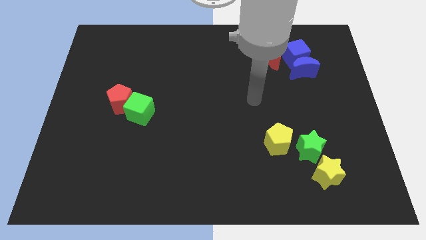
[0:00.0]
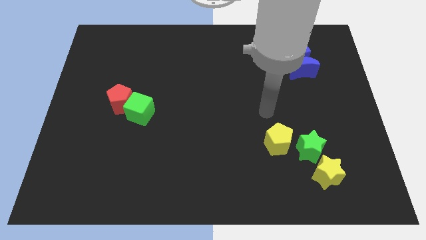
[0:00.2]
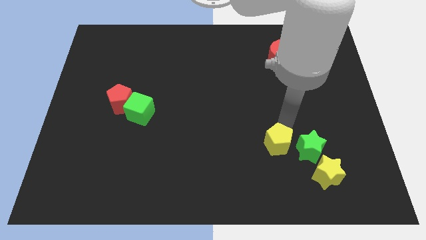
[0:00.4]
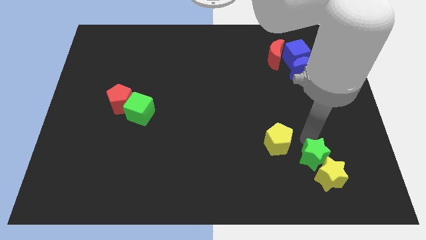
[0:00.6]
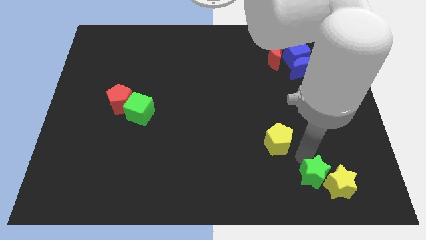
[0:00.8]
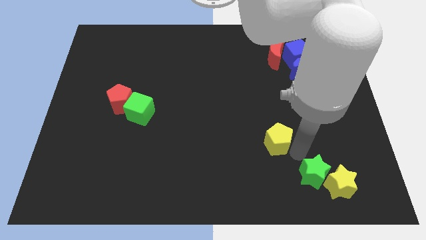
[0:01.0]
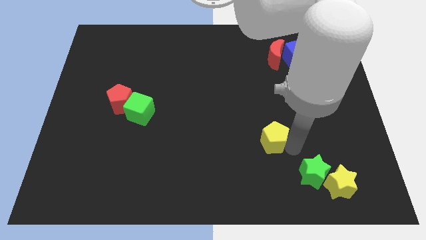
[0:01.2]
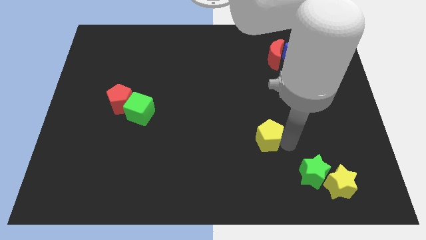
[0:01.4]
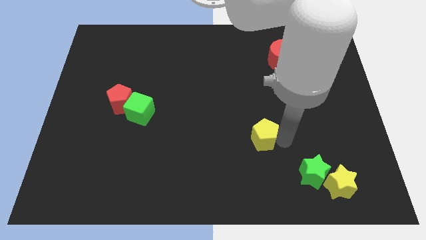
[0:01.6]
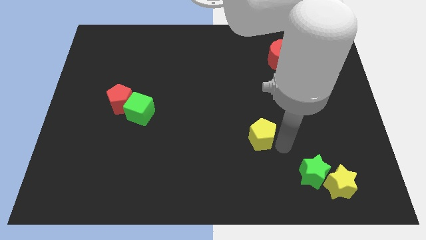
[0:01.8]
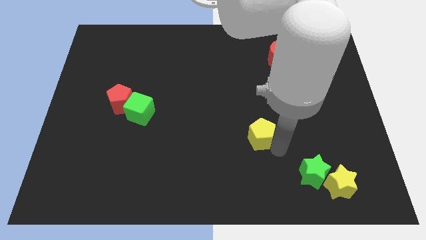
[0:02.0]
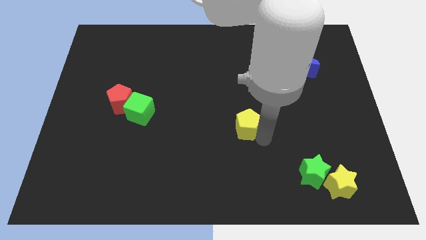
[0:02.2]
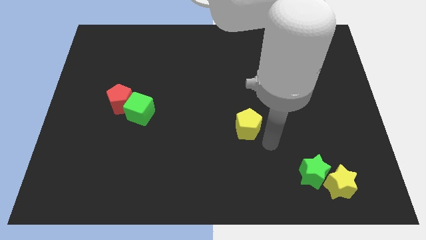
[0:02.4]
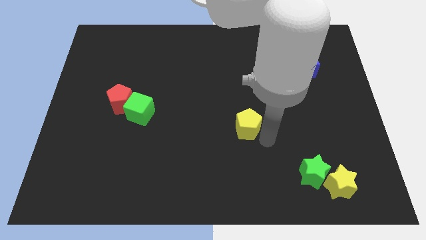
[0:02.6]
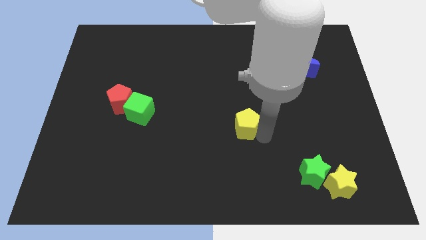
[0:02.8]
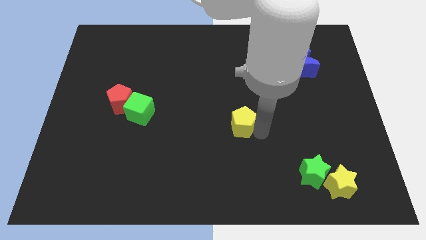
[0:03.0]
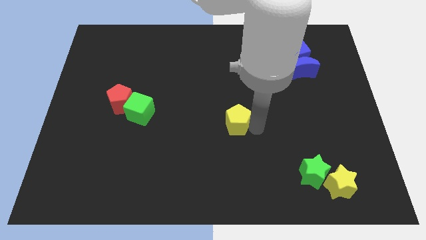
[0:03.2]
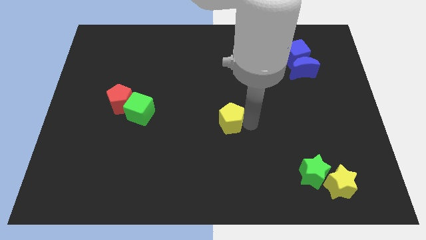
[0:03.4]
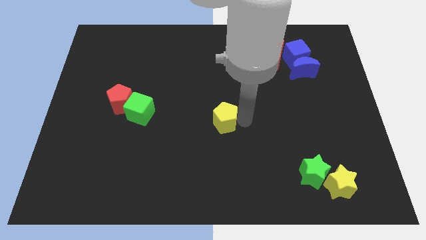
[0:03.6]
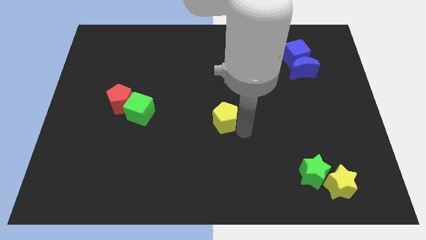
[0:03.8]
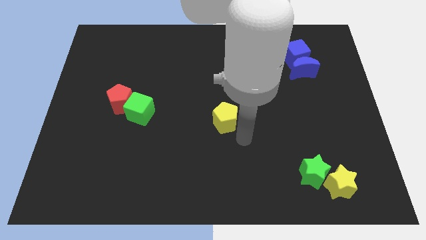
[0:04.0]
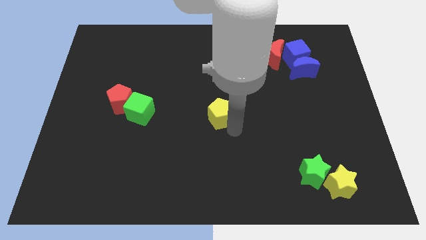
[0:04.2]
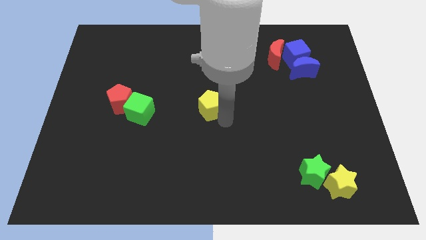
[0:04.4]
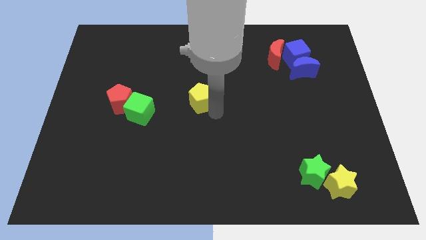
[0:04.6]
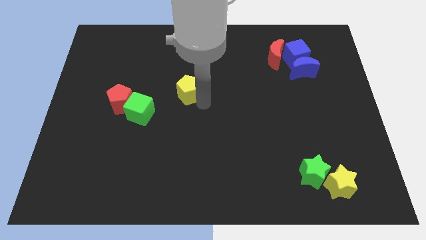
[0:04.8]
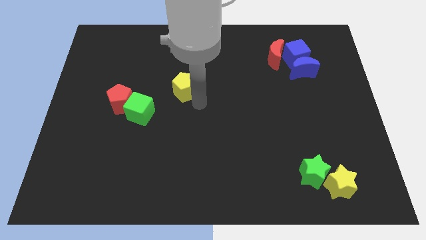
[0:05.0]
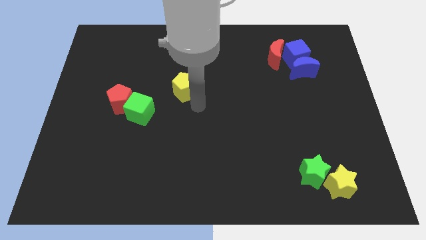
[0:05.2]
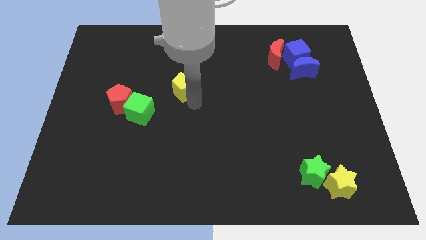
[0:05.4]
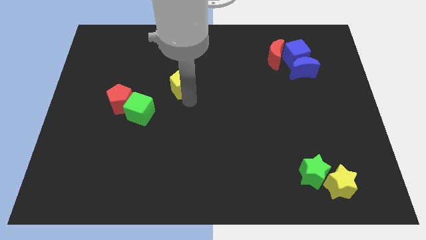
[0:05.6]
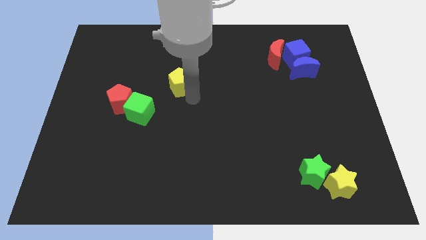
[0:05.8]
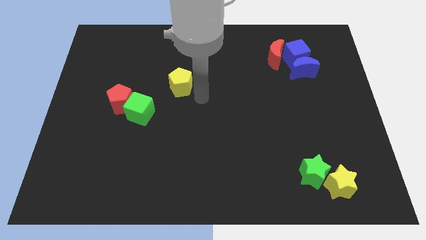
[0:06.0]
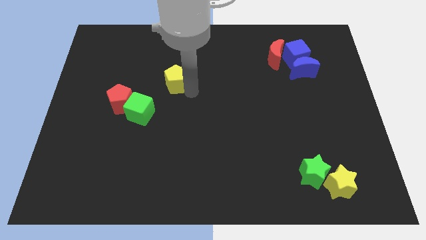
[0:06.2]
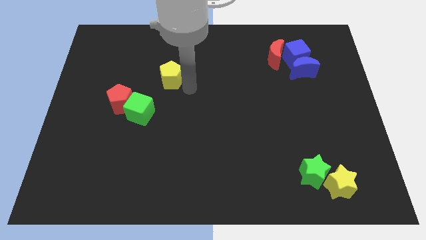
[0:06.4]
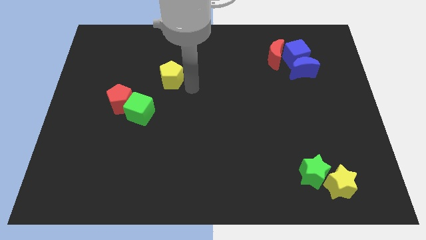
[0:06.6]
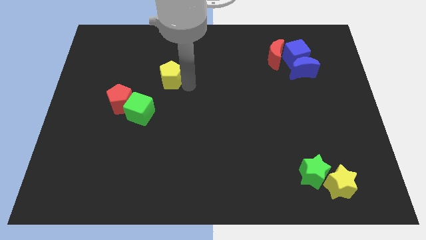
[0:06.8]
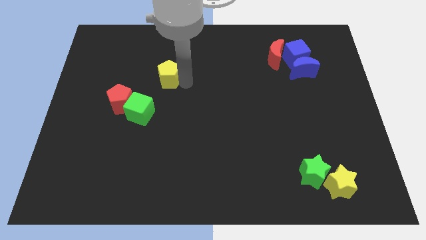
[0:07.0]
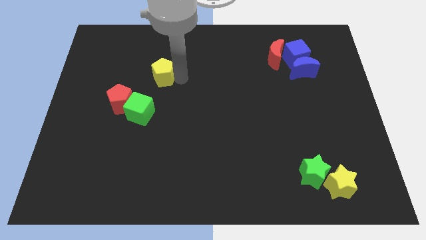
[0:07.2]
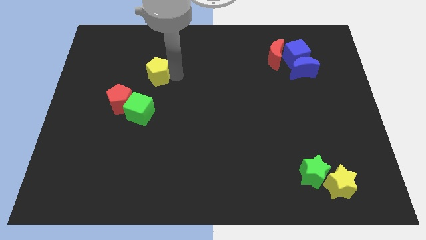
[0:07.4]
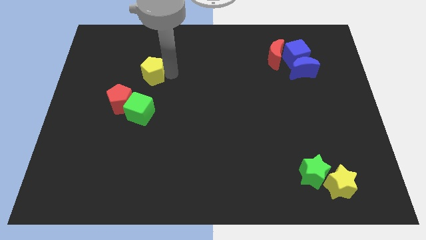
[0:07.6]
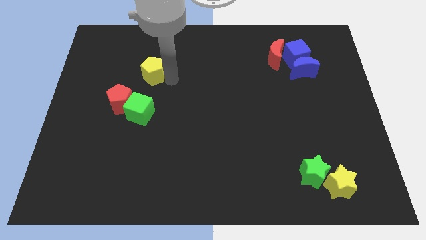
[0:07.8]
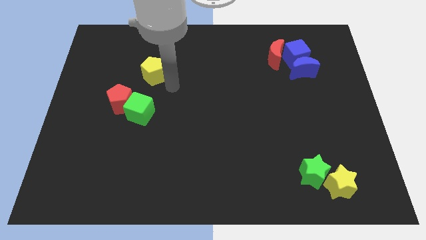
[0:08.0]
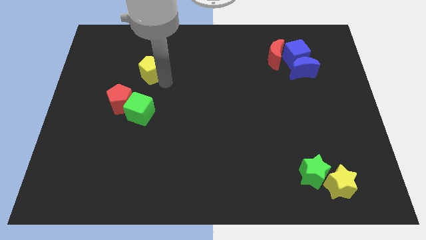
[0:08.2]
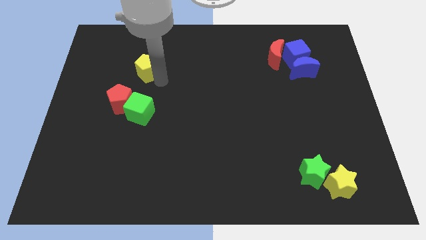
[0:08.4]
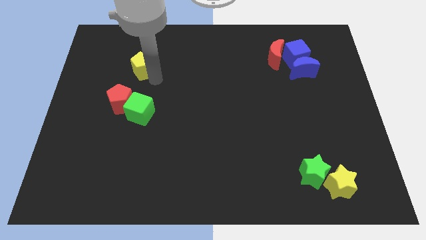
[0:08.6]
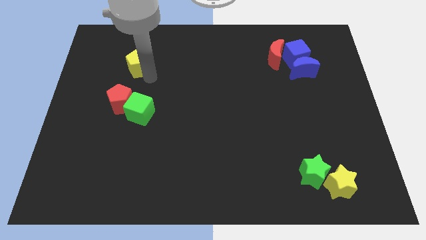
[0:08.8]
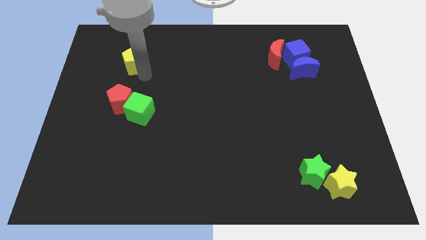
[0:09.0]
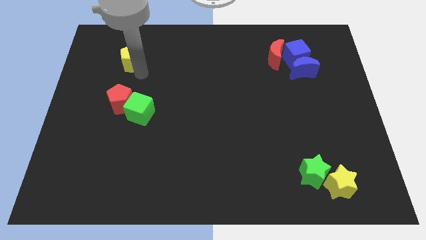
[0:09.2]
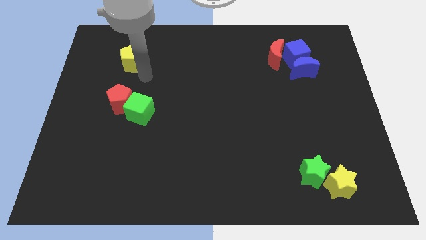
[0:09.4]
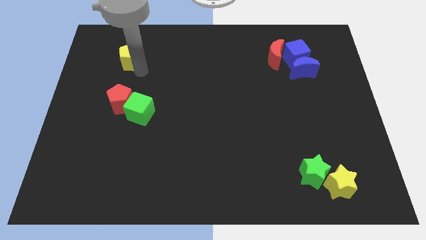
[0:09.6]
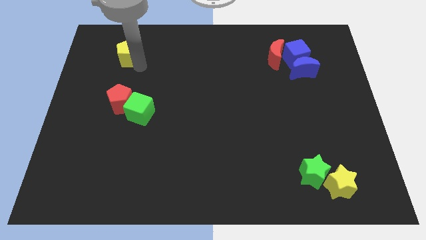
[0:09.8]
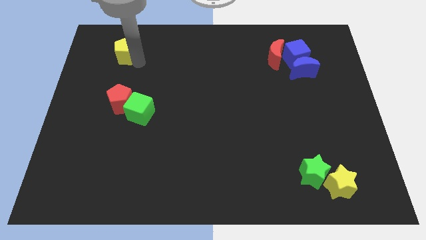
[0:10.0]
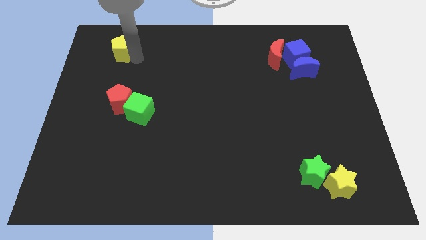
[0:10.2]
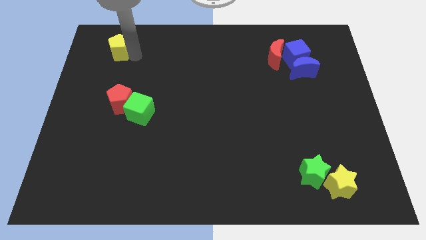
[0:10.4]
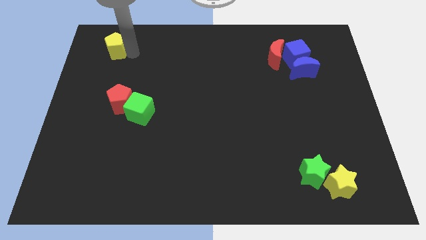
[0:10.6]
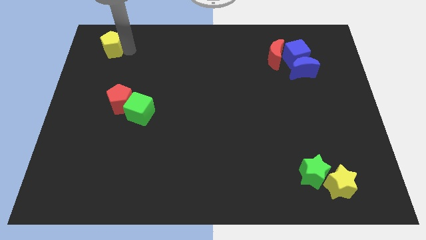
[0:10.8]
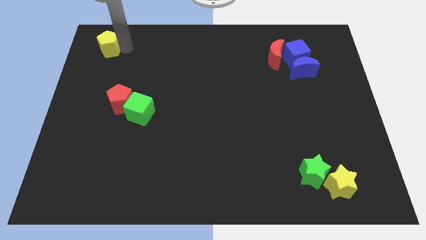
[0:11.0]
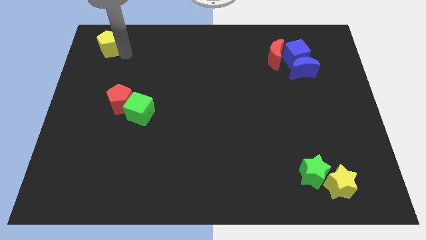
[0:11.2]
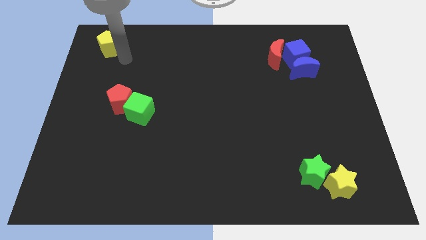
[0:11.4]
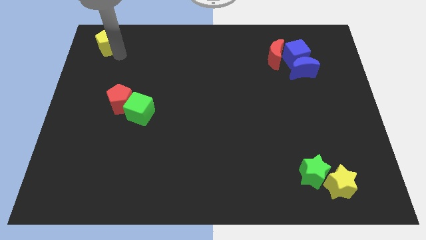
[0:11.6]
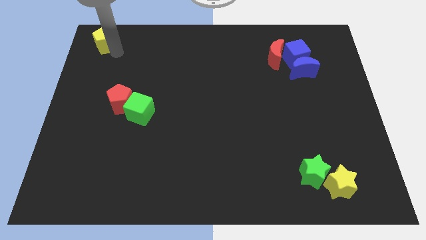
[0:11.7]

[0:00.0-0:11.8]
slide the yellow pentagon to the top left of the board

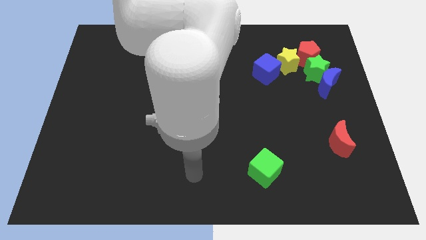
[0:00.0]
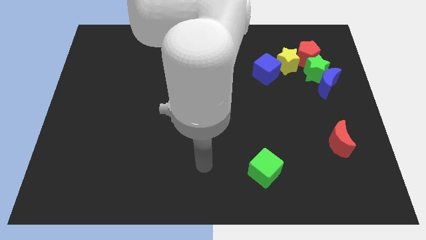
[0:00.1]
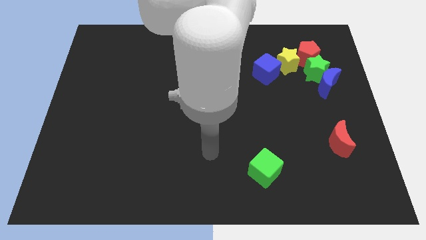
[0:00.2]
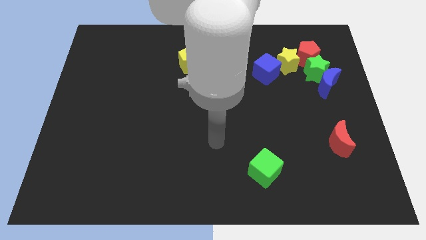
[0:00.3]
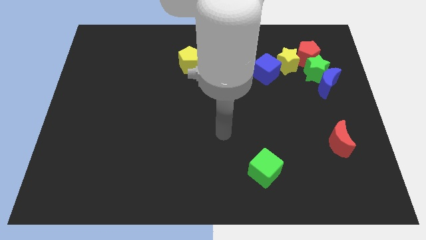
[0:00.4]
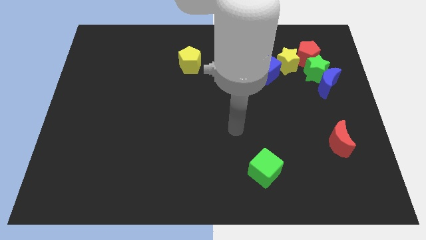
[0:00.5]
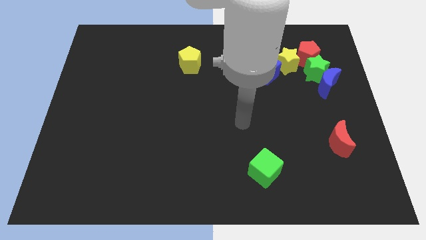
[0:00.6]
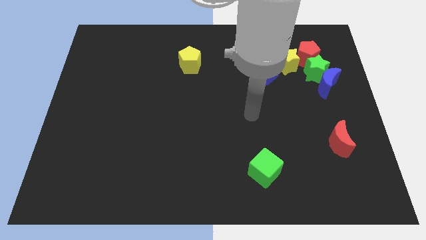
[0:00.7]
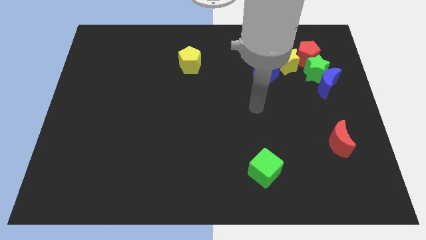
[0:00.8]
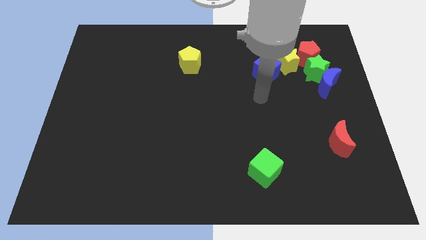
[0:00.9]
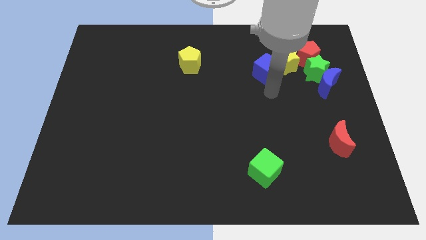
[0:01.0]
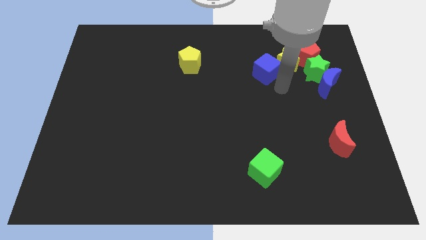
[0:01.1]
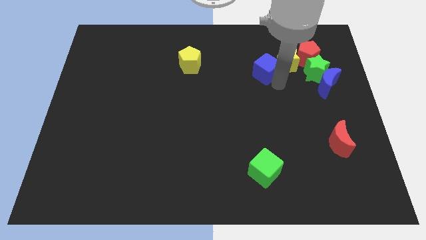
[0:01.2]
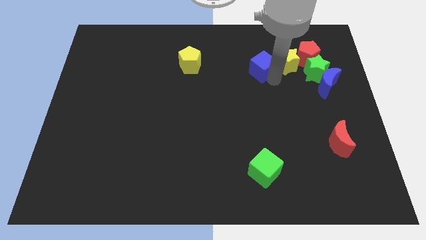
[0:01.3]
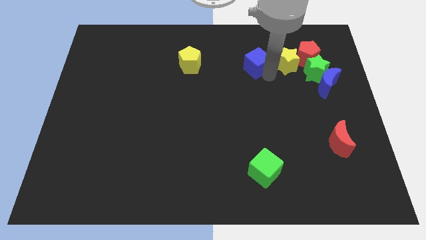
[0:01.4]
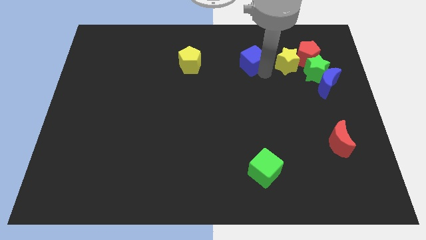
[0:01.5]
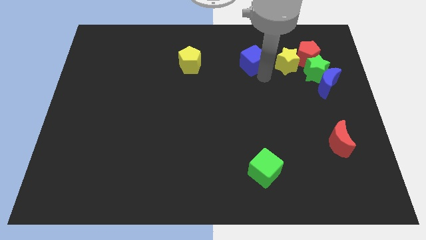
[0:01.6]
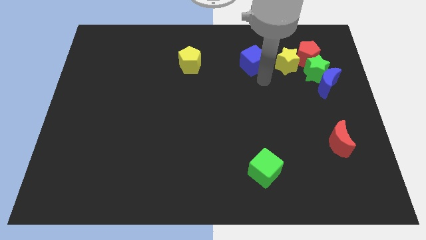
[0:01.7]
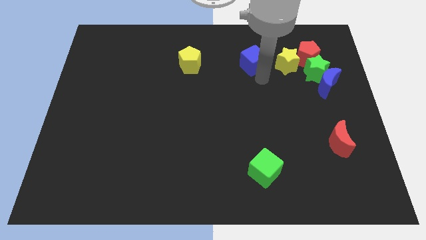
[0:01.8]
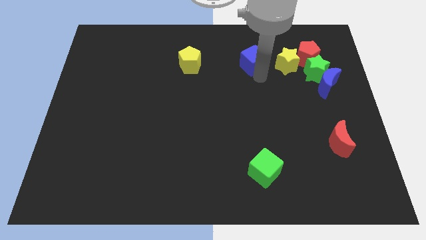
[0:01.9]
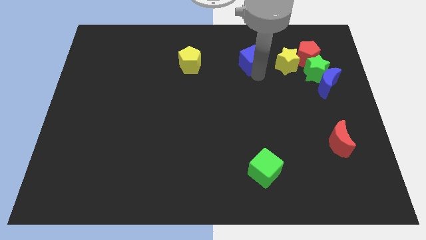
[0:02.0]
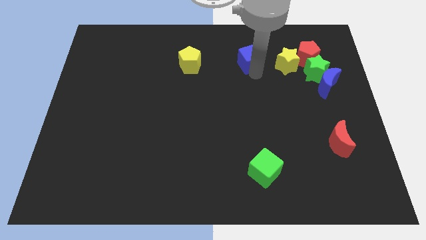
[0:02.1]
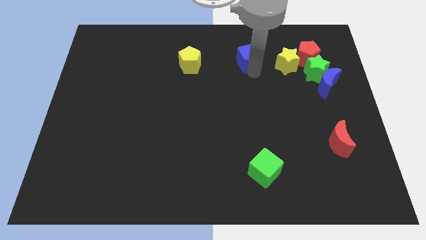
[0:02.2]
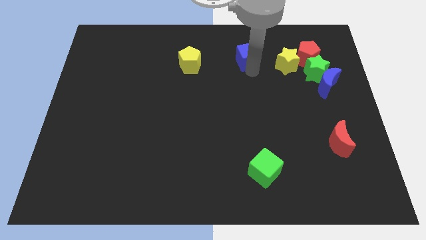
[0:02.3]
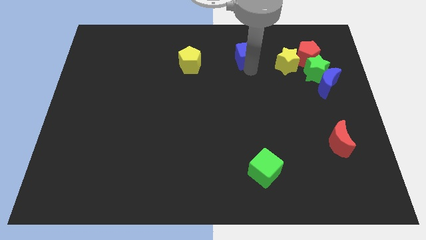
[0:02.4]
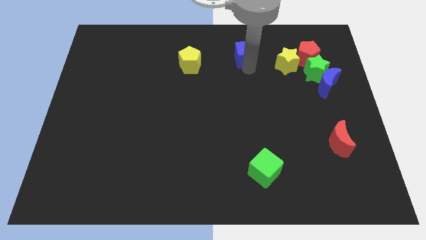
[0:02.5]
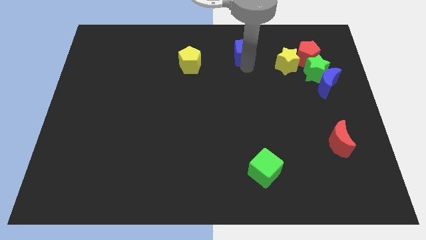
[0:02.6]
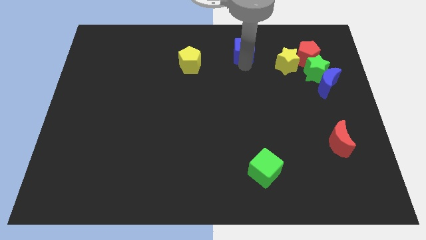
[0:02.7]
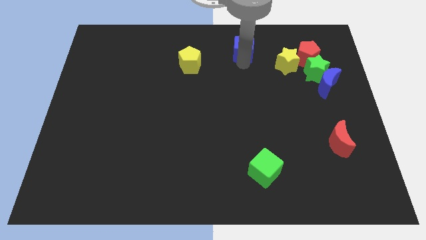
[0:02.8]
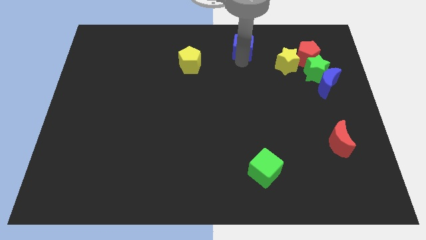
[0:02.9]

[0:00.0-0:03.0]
push the blue cube to the towards your base
